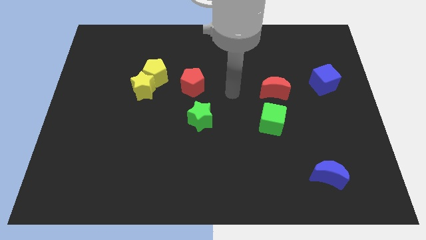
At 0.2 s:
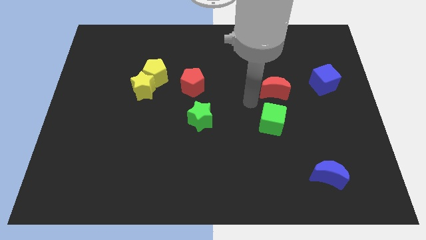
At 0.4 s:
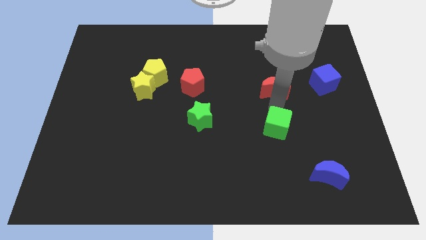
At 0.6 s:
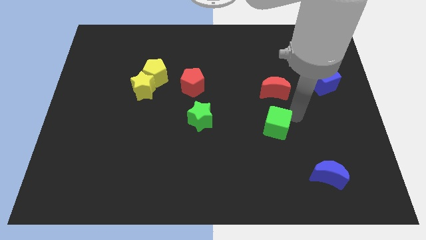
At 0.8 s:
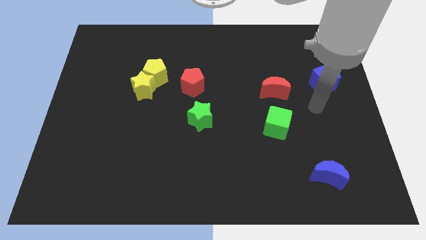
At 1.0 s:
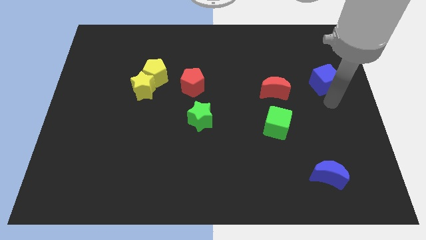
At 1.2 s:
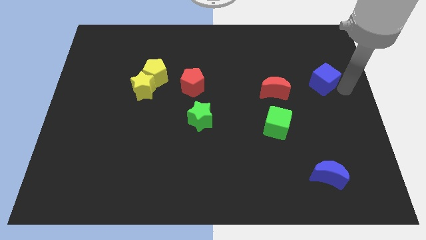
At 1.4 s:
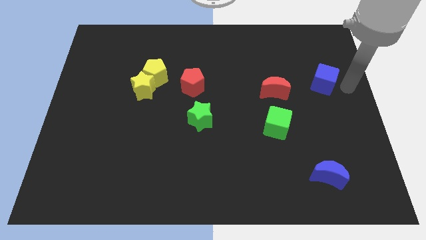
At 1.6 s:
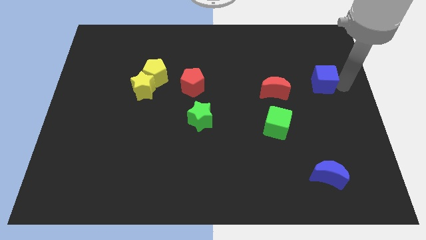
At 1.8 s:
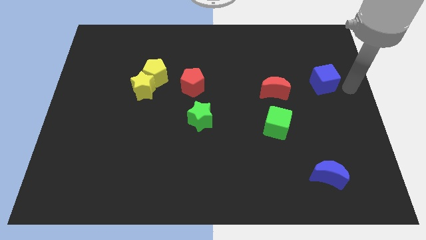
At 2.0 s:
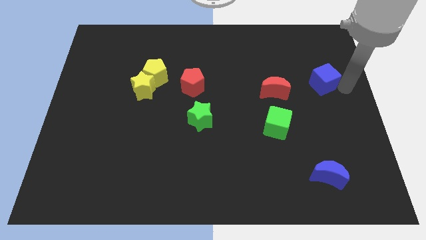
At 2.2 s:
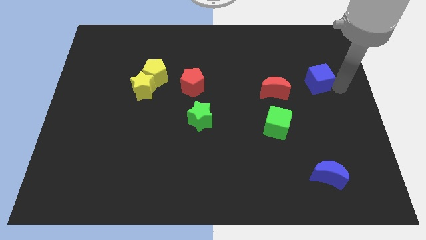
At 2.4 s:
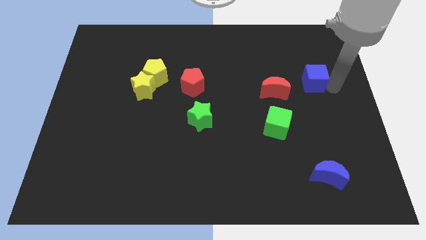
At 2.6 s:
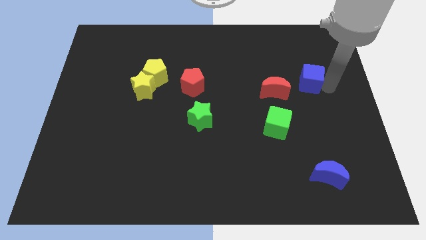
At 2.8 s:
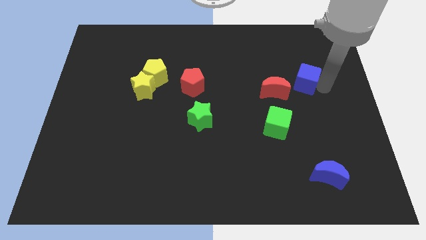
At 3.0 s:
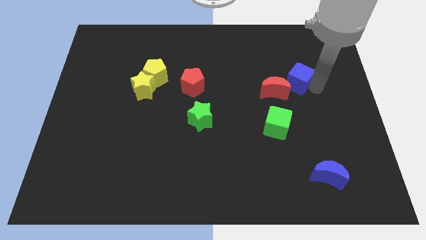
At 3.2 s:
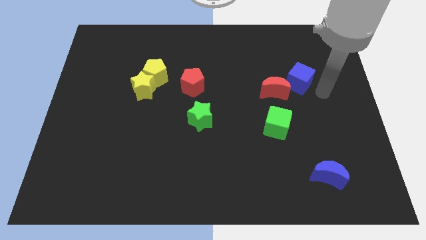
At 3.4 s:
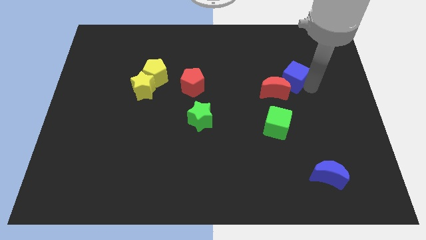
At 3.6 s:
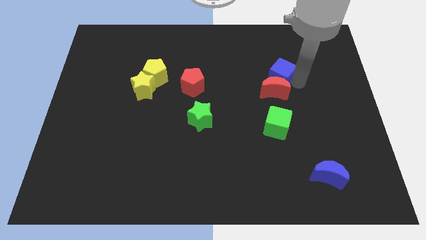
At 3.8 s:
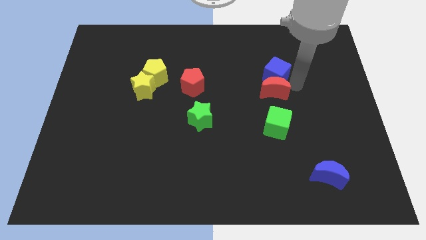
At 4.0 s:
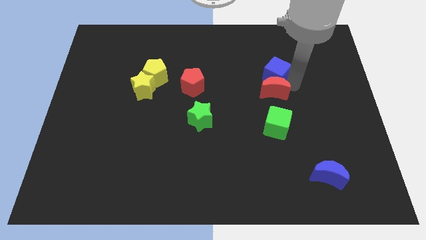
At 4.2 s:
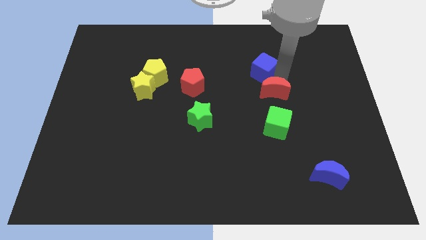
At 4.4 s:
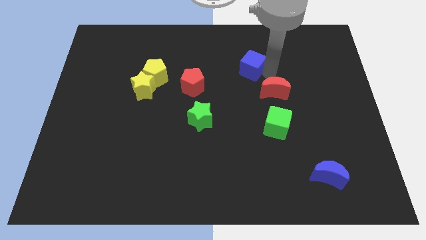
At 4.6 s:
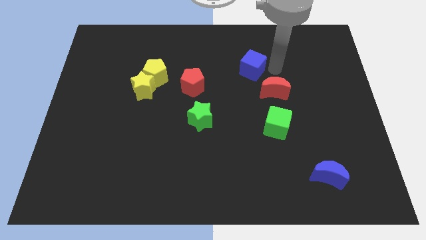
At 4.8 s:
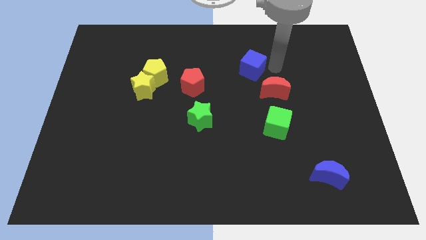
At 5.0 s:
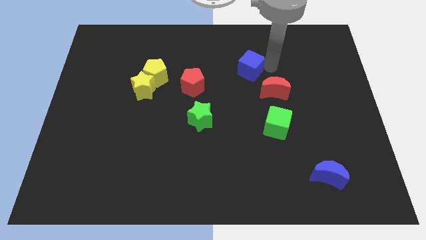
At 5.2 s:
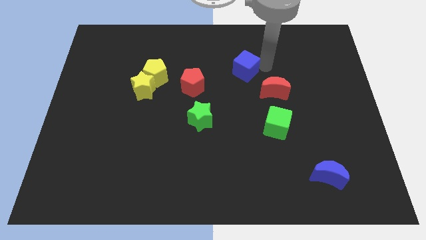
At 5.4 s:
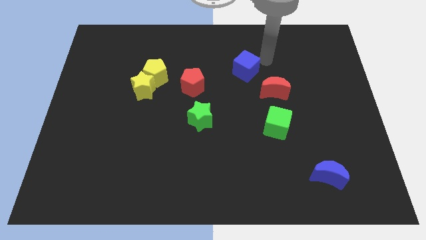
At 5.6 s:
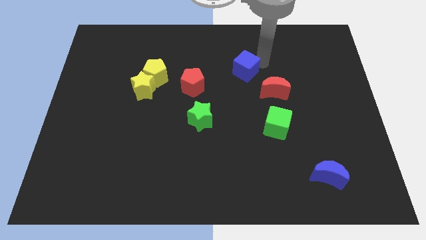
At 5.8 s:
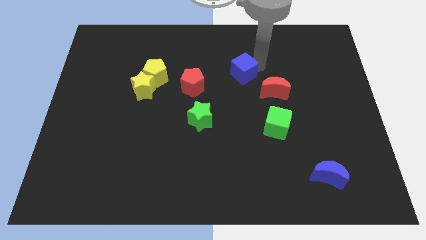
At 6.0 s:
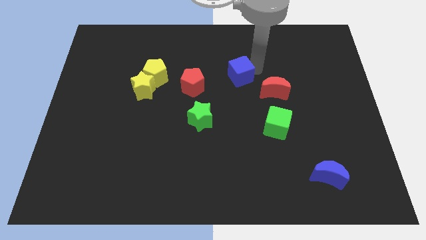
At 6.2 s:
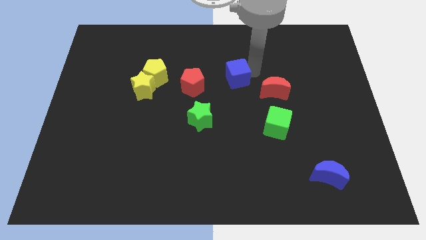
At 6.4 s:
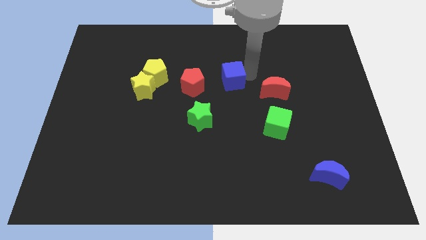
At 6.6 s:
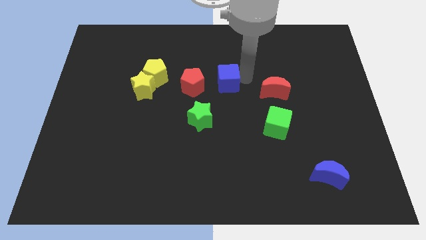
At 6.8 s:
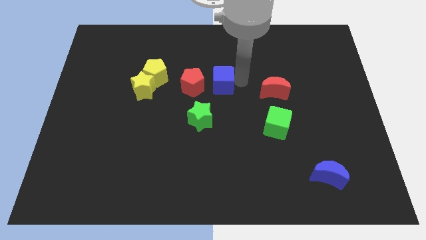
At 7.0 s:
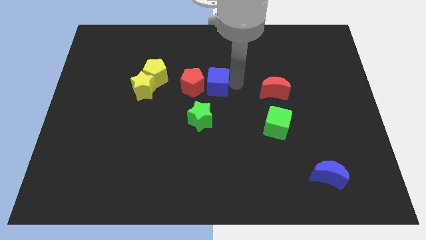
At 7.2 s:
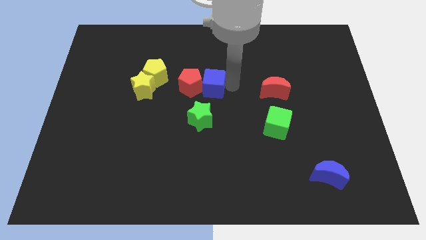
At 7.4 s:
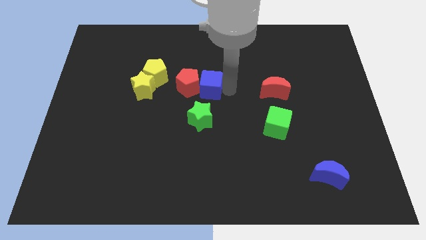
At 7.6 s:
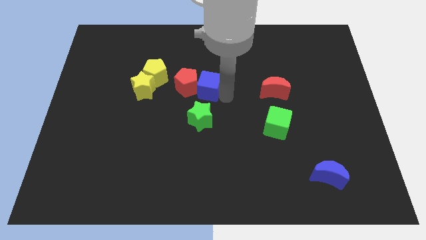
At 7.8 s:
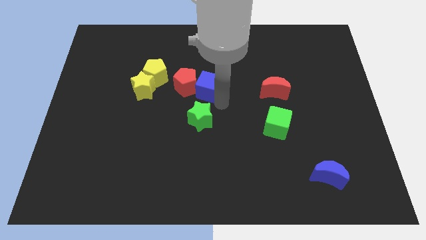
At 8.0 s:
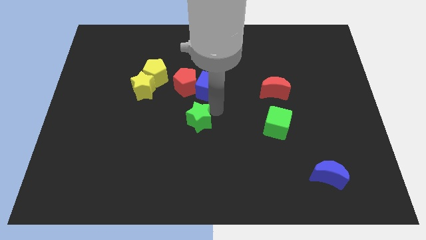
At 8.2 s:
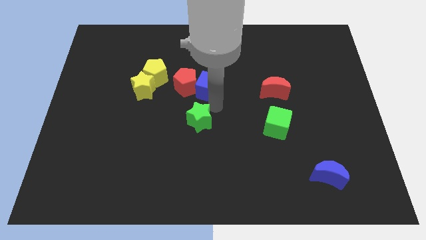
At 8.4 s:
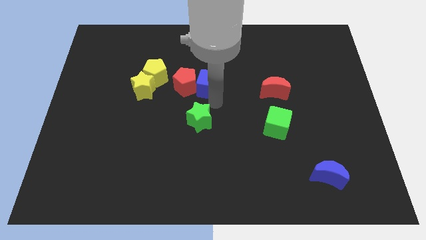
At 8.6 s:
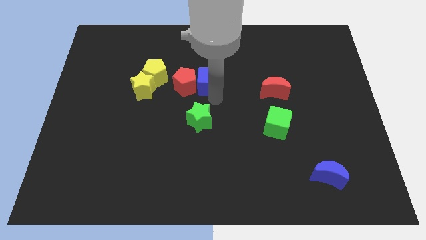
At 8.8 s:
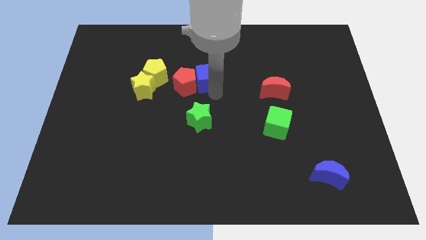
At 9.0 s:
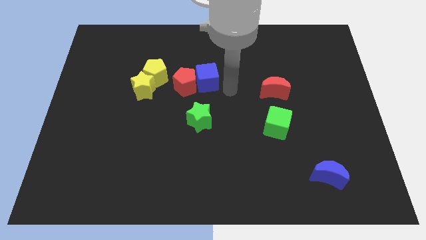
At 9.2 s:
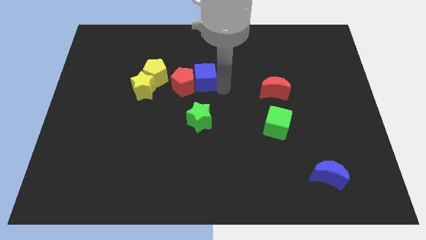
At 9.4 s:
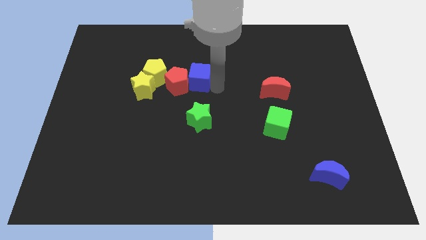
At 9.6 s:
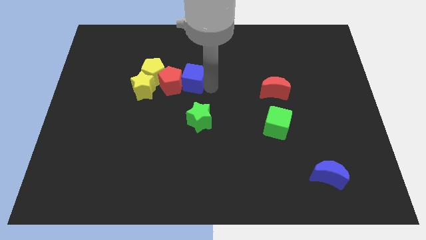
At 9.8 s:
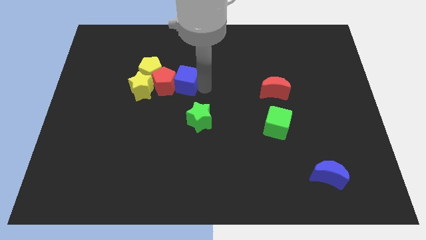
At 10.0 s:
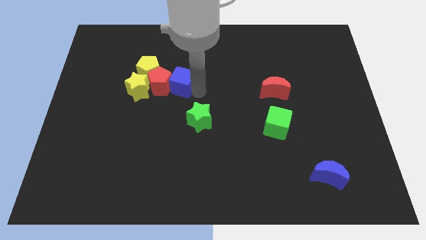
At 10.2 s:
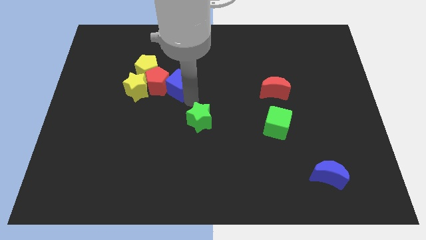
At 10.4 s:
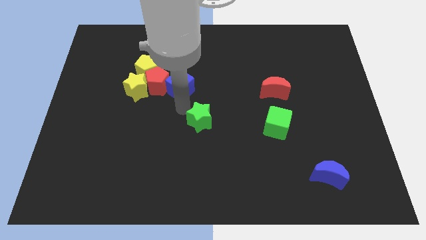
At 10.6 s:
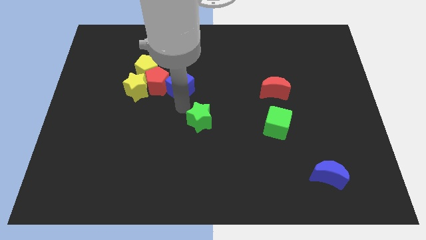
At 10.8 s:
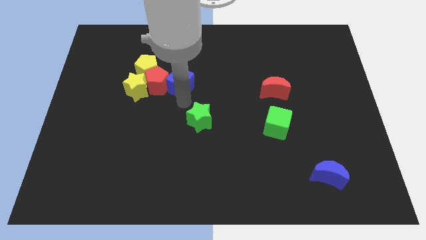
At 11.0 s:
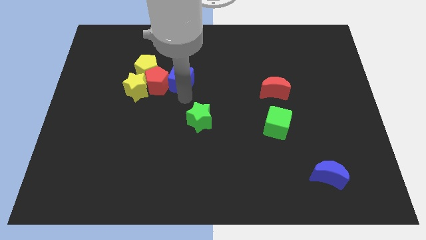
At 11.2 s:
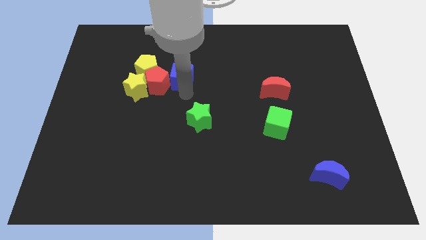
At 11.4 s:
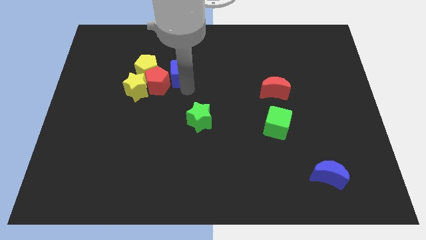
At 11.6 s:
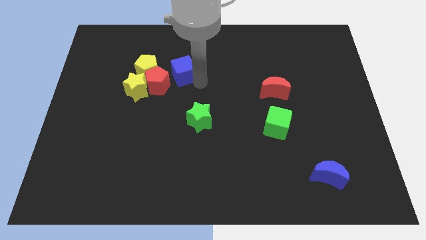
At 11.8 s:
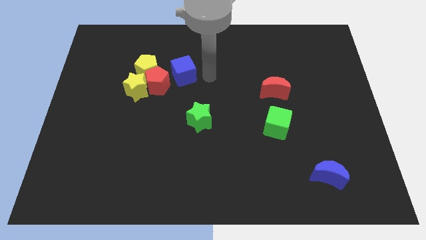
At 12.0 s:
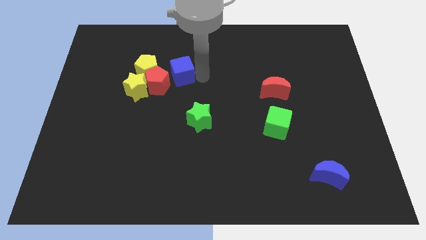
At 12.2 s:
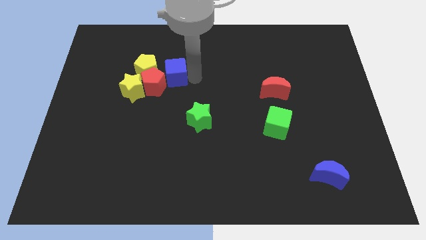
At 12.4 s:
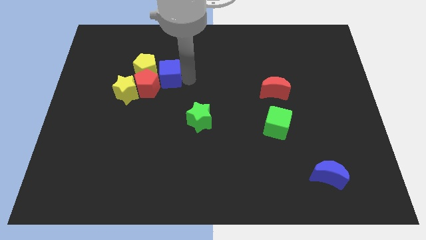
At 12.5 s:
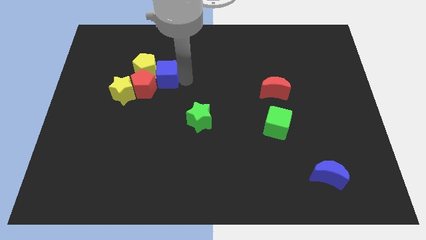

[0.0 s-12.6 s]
slide the blue cube next to the yellow pentagon
